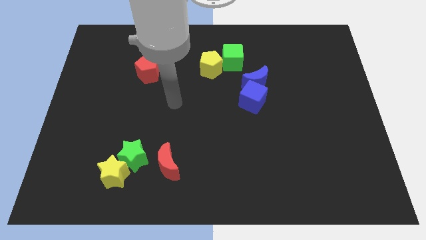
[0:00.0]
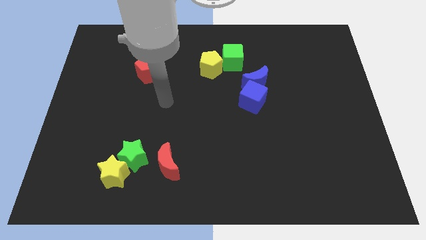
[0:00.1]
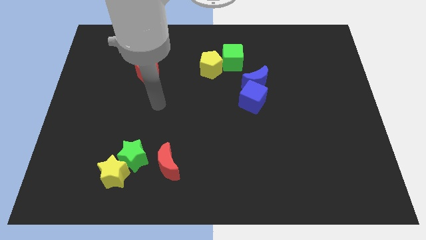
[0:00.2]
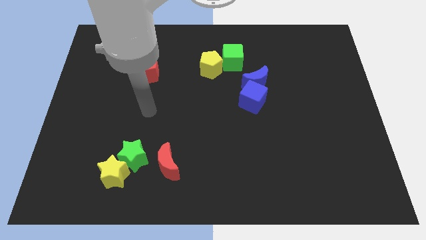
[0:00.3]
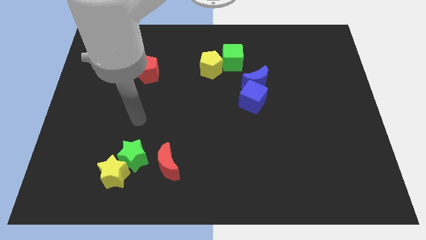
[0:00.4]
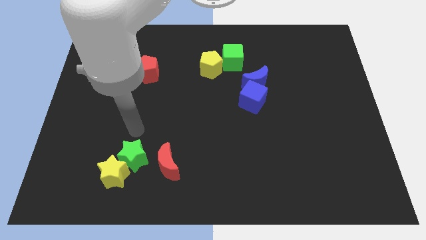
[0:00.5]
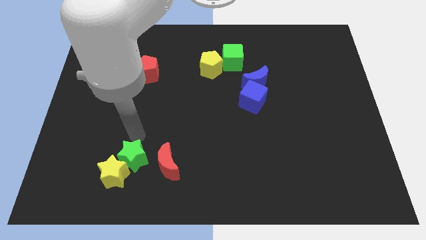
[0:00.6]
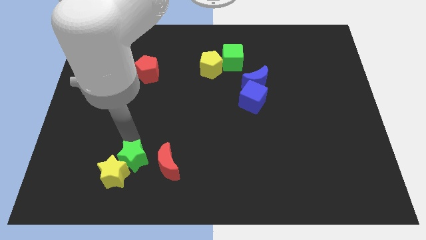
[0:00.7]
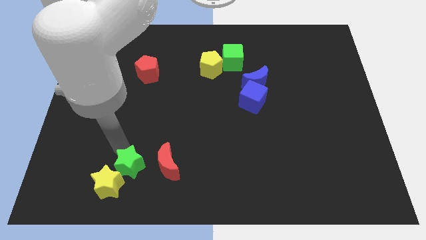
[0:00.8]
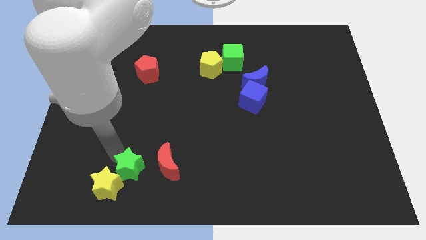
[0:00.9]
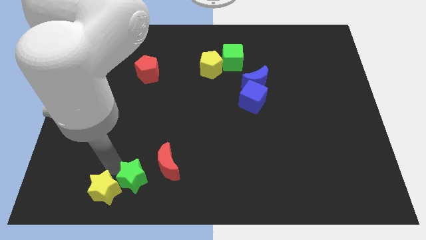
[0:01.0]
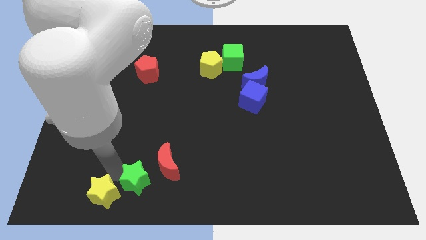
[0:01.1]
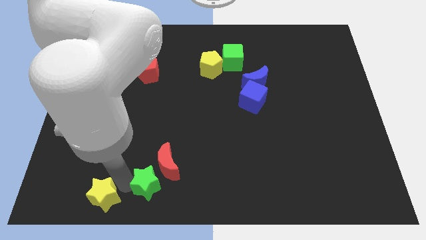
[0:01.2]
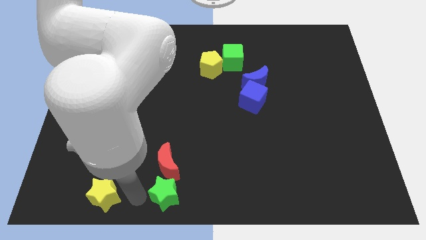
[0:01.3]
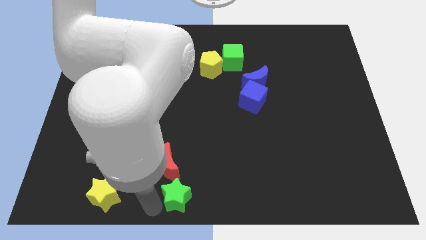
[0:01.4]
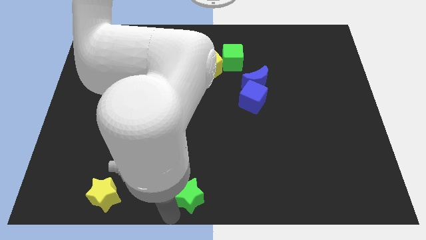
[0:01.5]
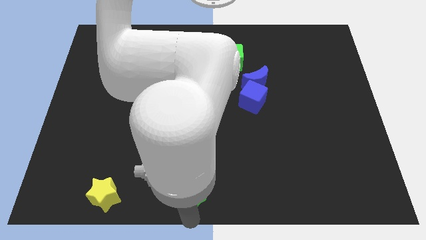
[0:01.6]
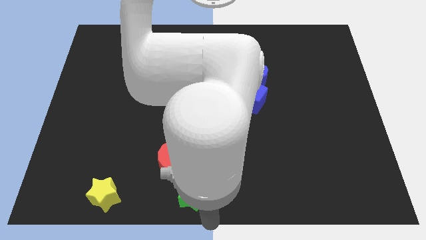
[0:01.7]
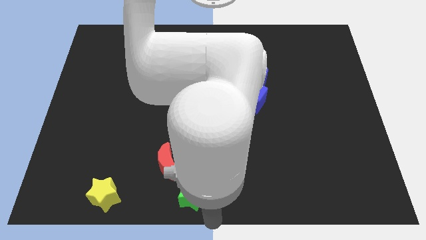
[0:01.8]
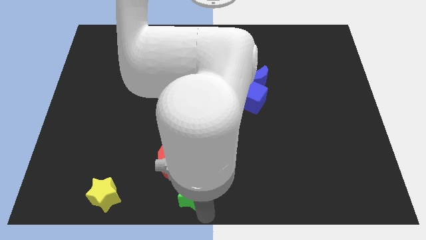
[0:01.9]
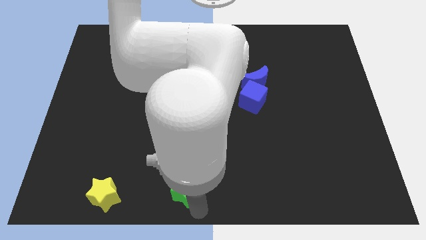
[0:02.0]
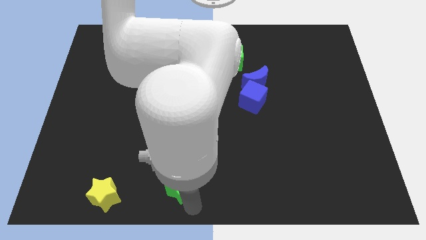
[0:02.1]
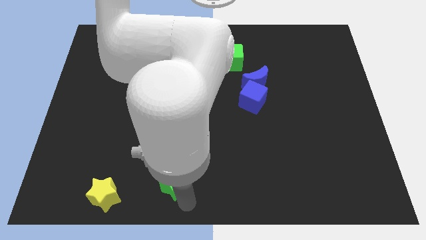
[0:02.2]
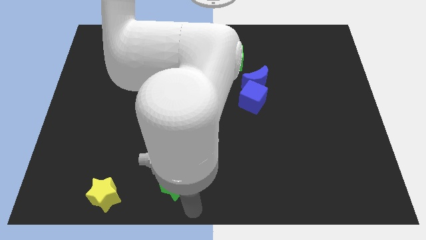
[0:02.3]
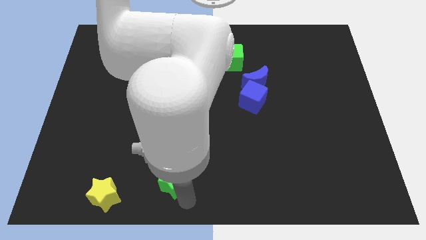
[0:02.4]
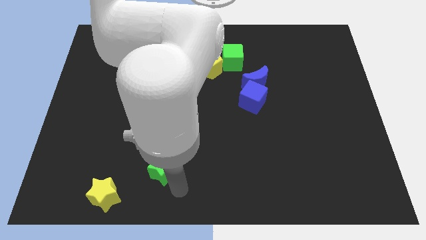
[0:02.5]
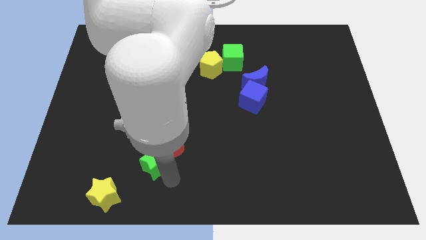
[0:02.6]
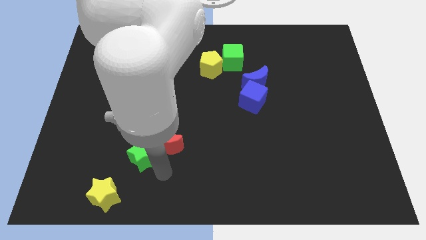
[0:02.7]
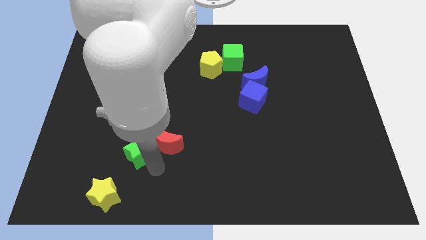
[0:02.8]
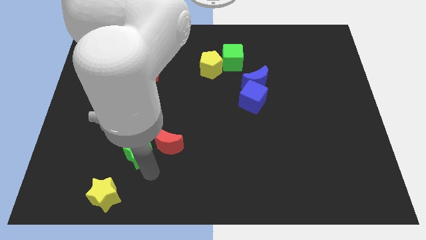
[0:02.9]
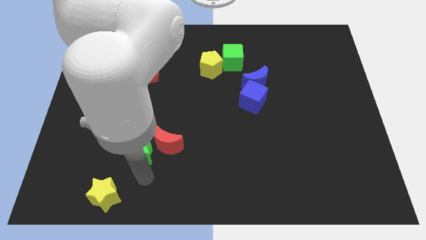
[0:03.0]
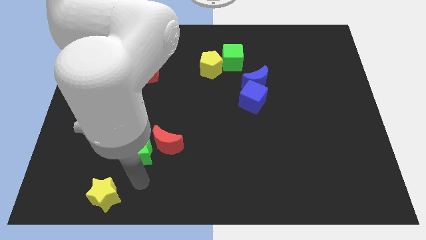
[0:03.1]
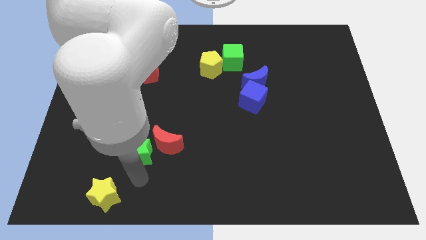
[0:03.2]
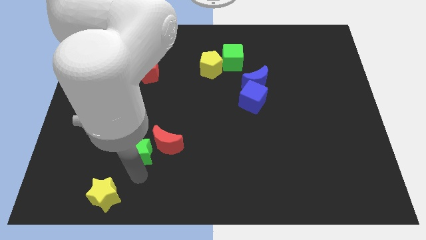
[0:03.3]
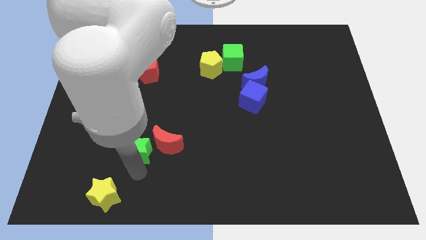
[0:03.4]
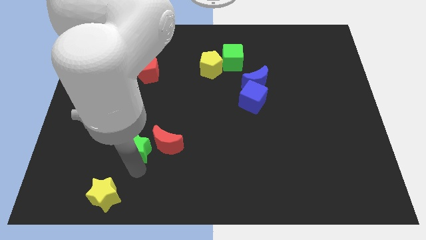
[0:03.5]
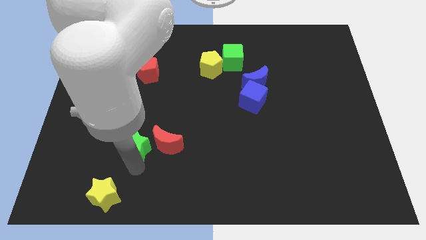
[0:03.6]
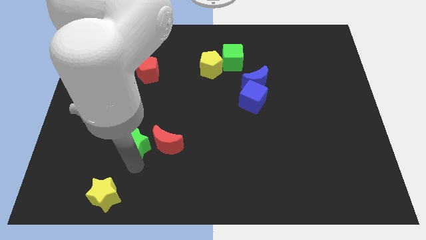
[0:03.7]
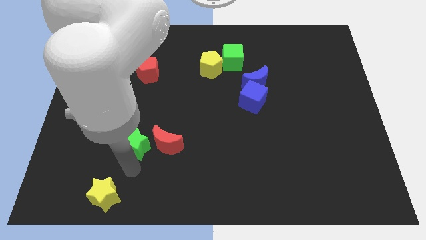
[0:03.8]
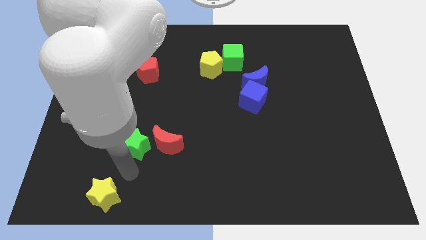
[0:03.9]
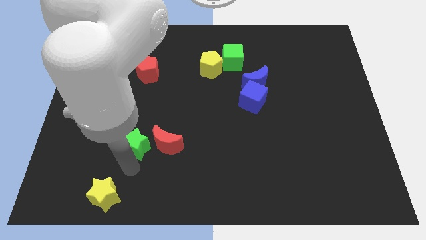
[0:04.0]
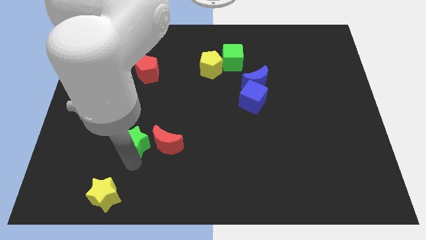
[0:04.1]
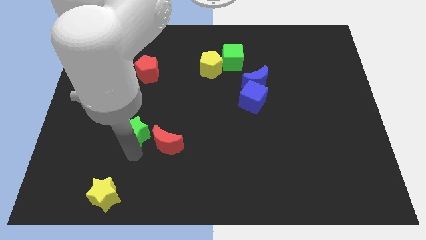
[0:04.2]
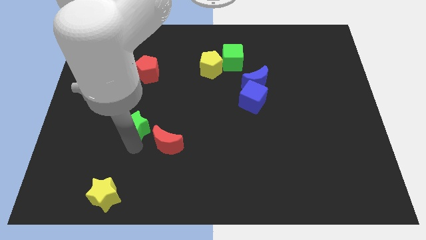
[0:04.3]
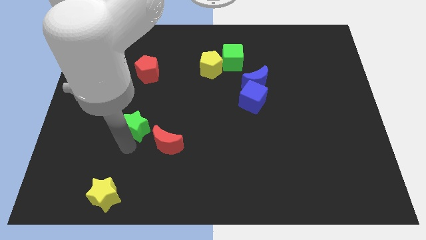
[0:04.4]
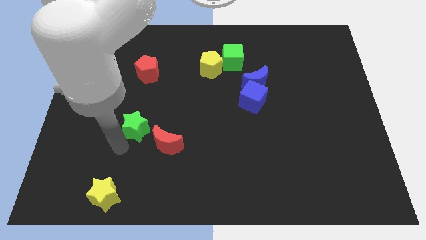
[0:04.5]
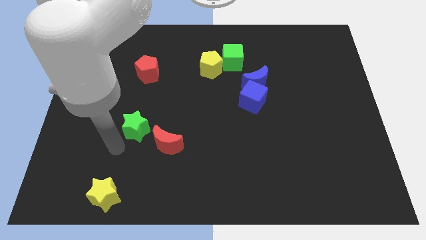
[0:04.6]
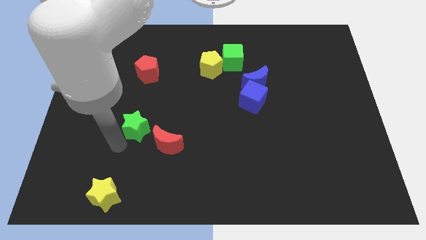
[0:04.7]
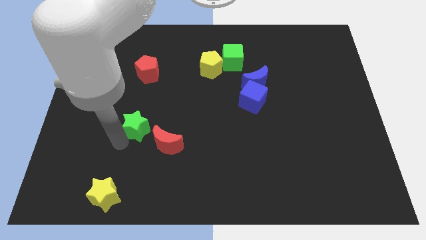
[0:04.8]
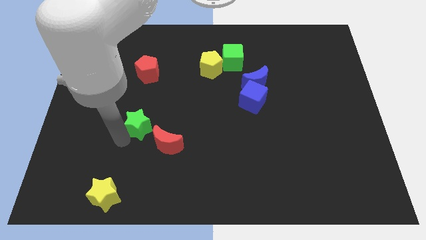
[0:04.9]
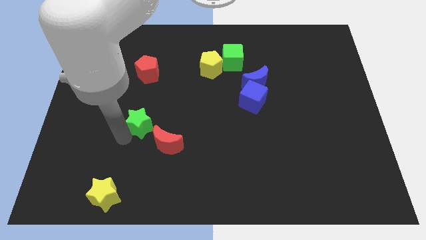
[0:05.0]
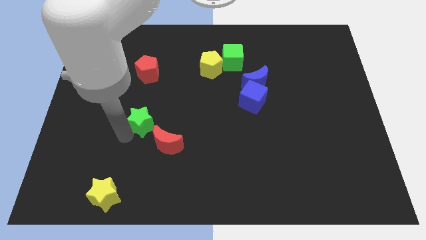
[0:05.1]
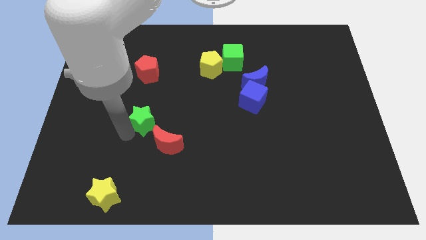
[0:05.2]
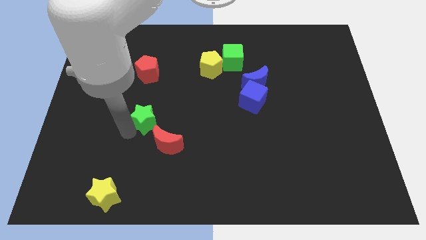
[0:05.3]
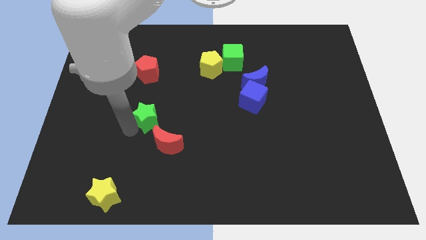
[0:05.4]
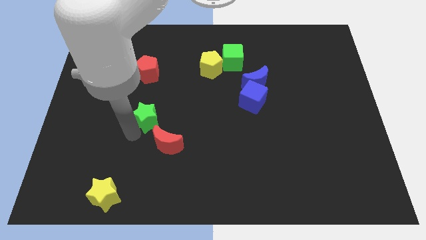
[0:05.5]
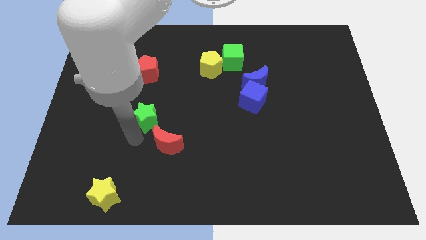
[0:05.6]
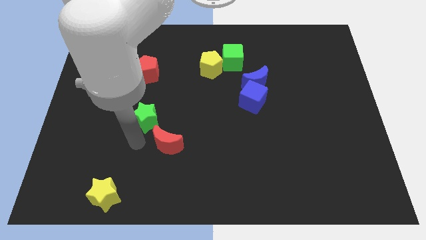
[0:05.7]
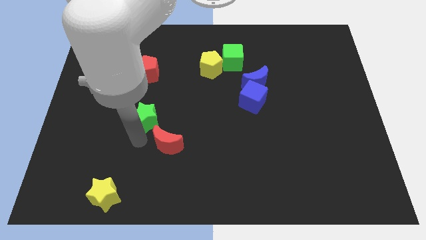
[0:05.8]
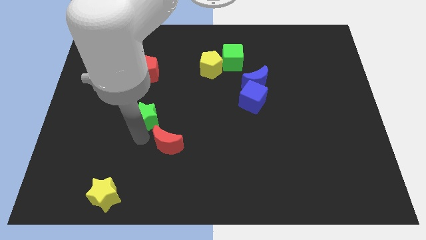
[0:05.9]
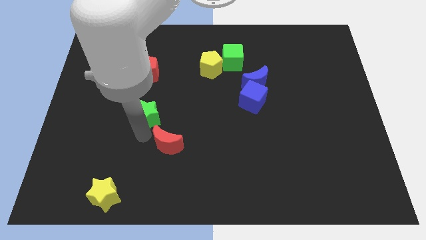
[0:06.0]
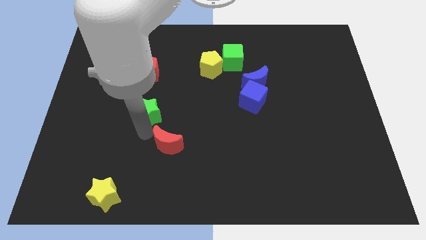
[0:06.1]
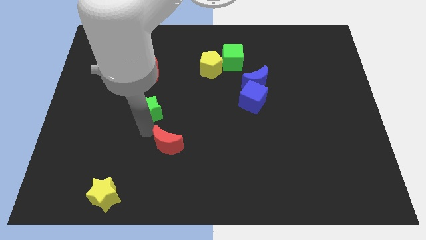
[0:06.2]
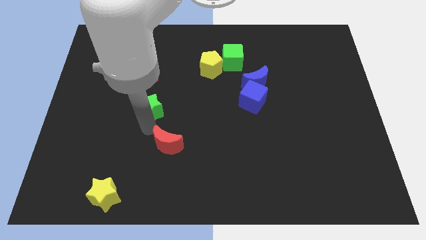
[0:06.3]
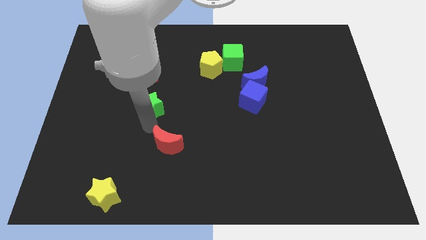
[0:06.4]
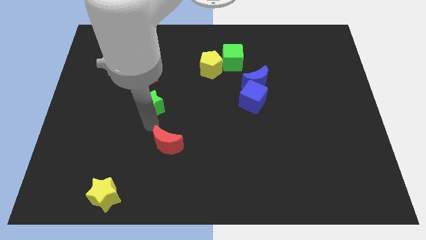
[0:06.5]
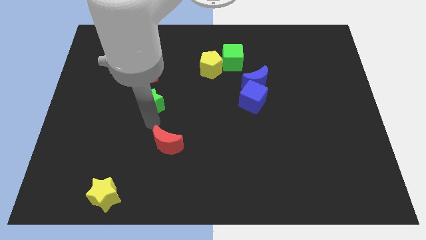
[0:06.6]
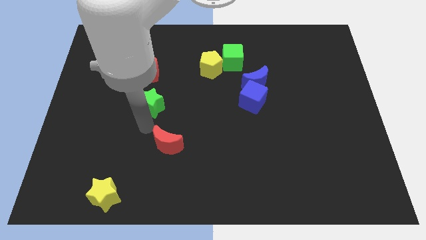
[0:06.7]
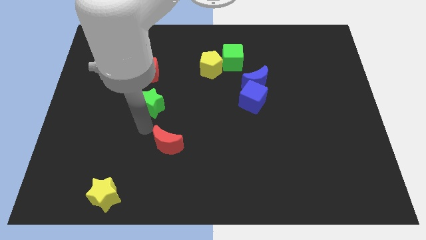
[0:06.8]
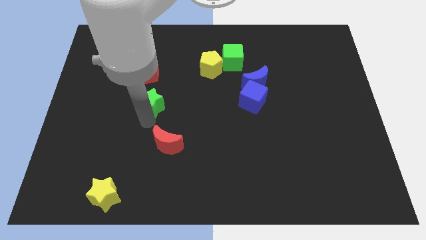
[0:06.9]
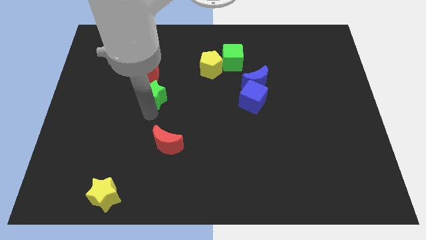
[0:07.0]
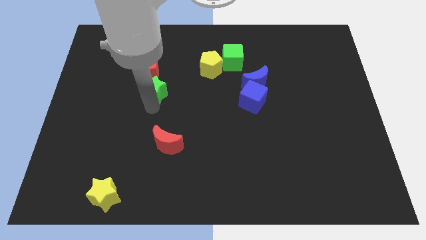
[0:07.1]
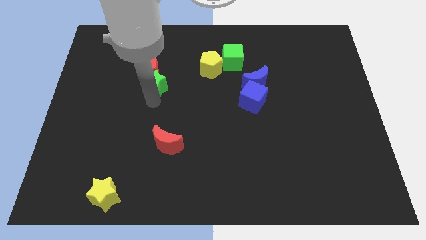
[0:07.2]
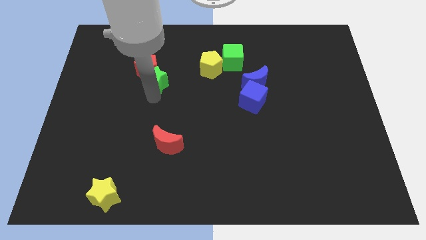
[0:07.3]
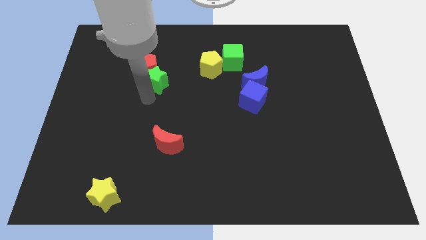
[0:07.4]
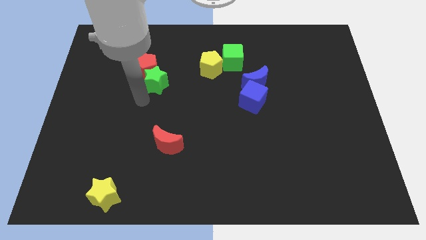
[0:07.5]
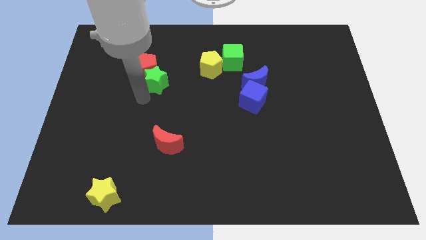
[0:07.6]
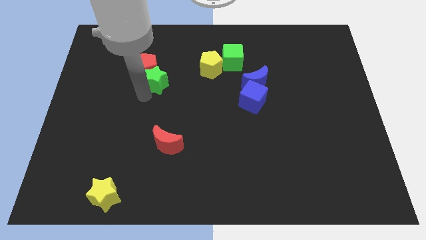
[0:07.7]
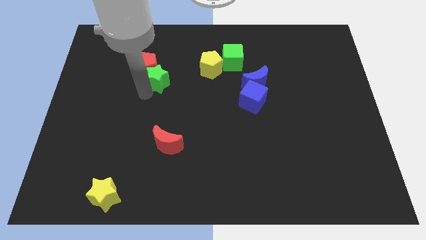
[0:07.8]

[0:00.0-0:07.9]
push the green star to the left side of the yellow pentagon
